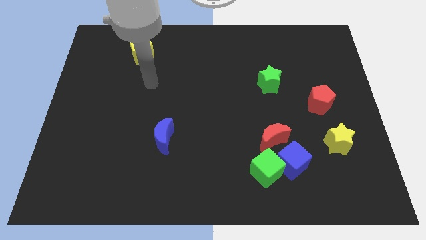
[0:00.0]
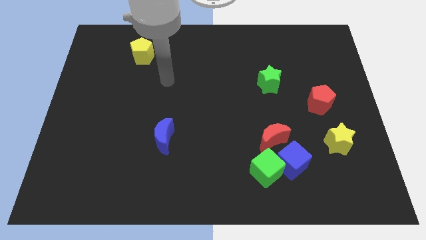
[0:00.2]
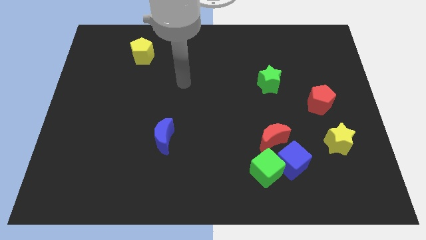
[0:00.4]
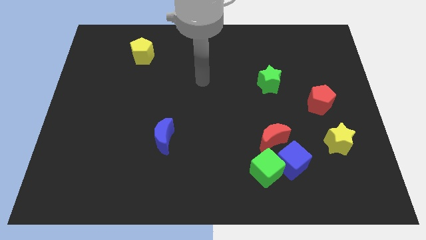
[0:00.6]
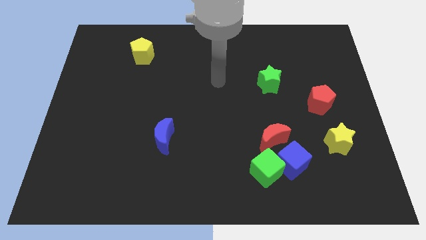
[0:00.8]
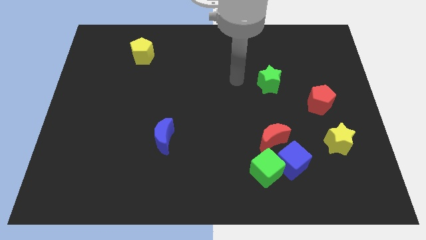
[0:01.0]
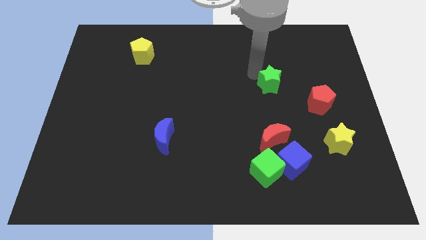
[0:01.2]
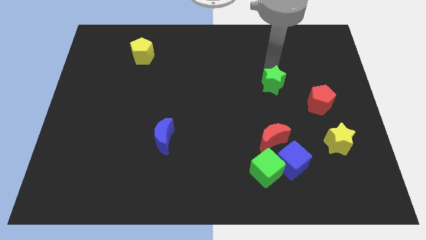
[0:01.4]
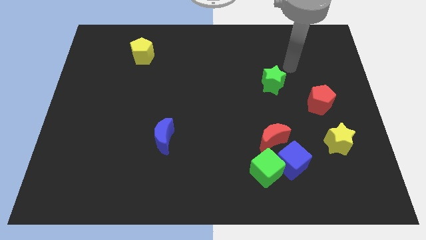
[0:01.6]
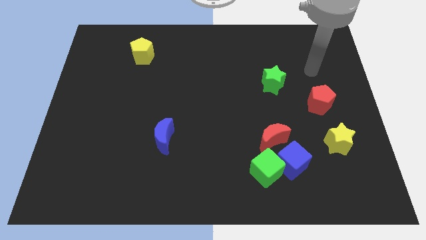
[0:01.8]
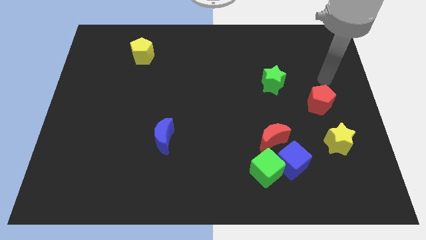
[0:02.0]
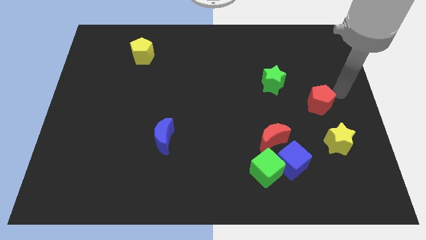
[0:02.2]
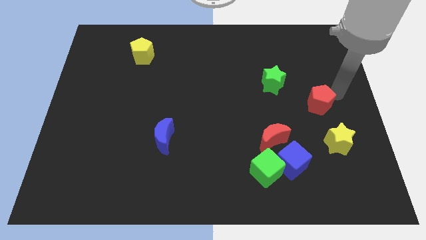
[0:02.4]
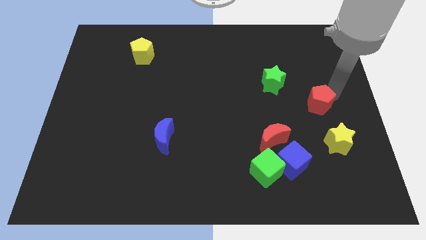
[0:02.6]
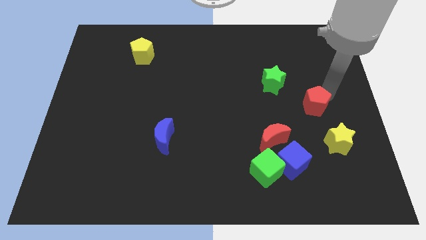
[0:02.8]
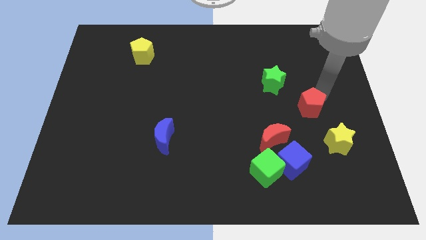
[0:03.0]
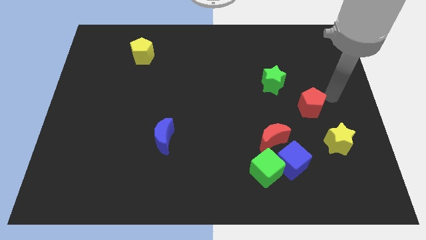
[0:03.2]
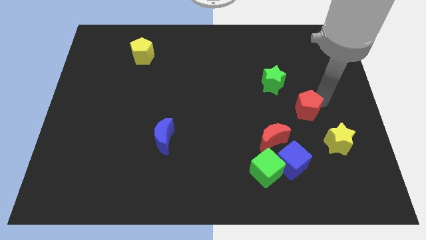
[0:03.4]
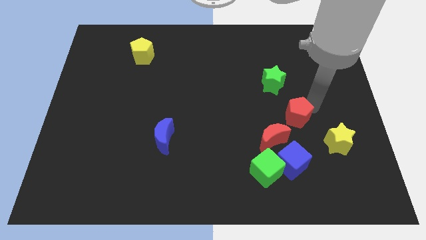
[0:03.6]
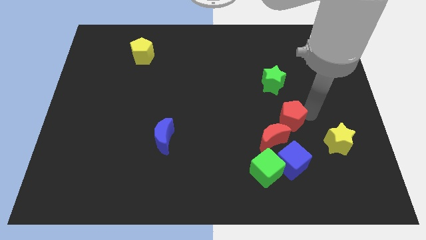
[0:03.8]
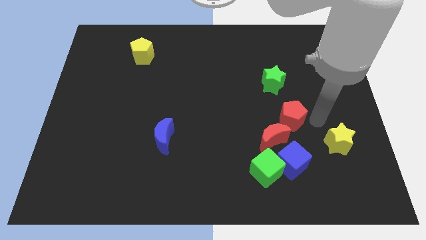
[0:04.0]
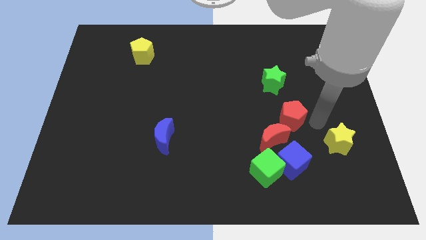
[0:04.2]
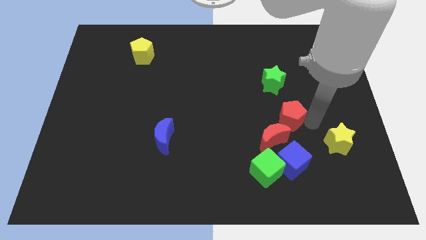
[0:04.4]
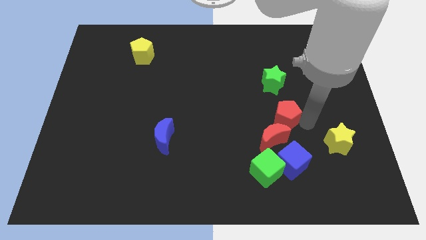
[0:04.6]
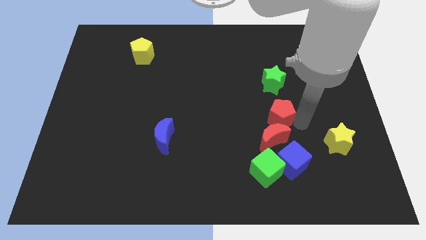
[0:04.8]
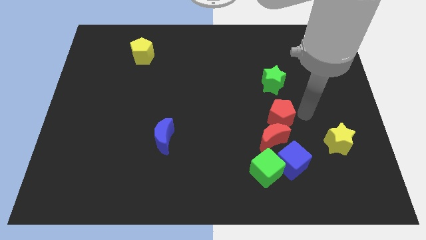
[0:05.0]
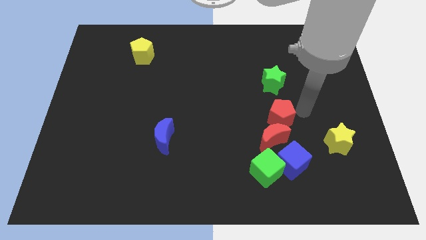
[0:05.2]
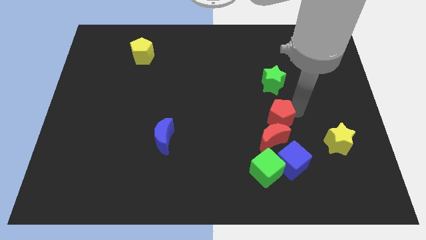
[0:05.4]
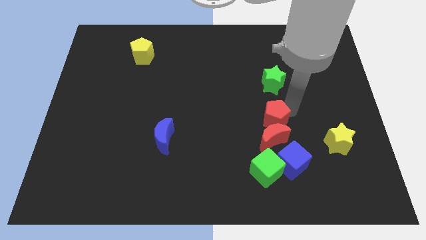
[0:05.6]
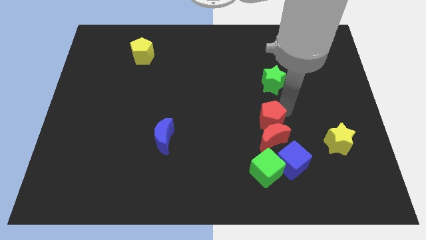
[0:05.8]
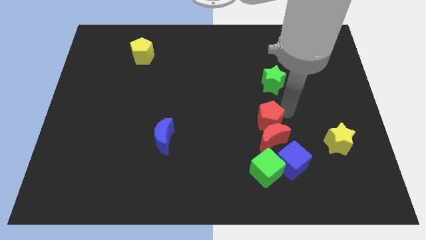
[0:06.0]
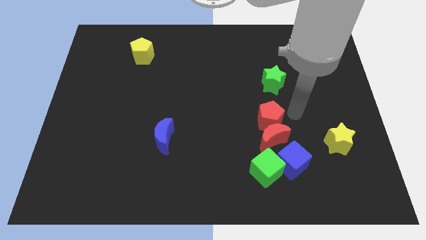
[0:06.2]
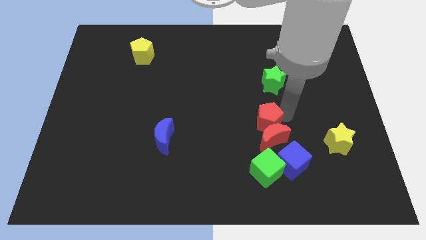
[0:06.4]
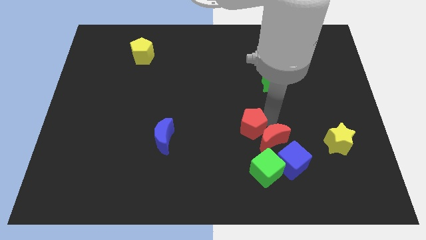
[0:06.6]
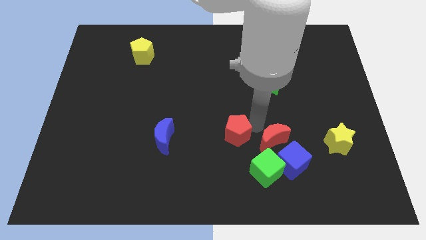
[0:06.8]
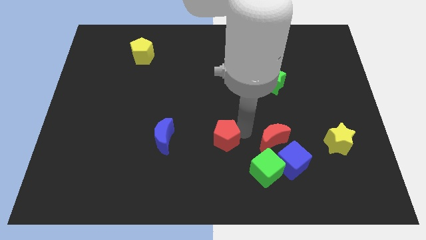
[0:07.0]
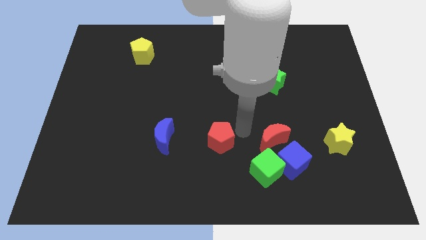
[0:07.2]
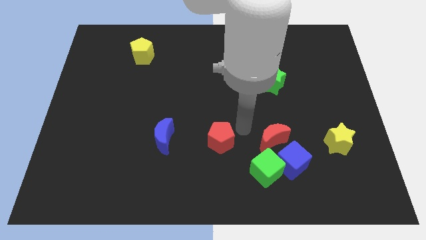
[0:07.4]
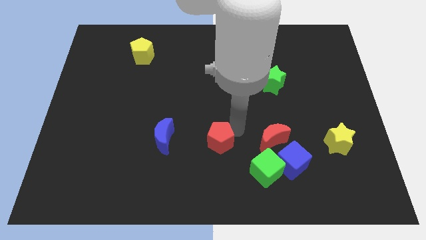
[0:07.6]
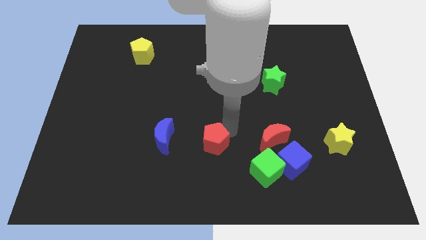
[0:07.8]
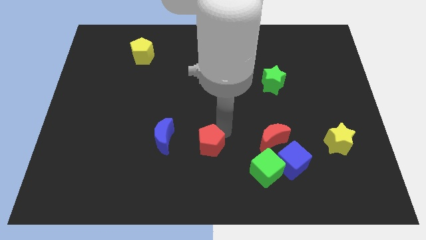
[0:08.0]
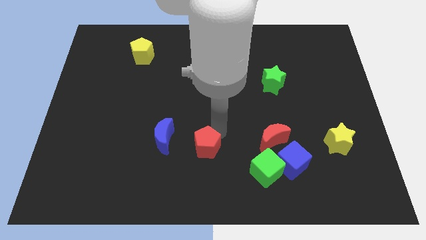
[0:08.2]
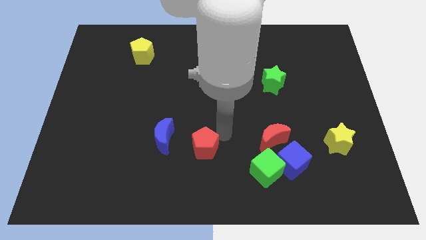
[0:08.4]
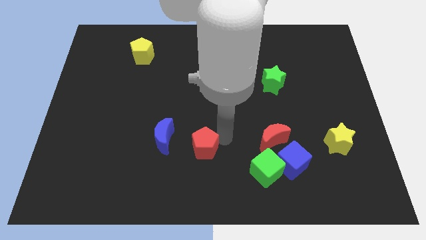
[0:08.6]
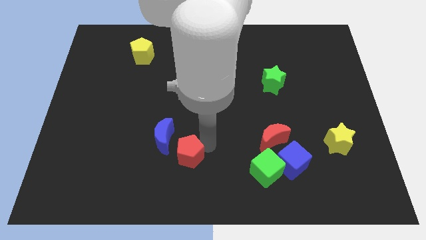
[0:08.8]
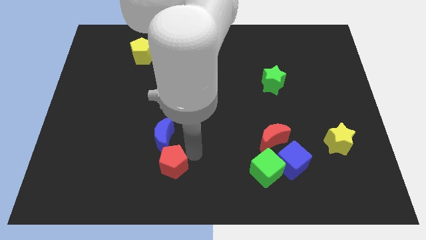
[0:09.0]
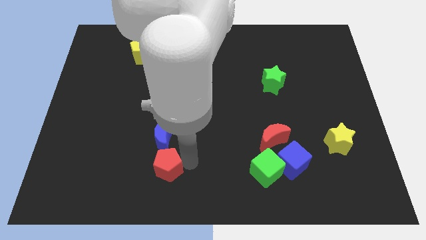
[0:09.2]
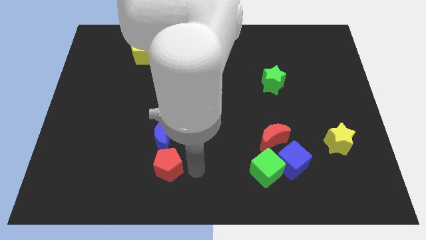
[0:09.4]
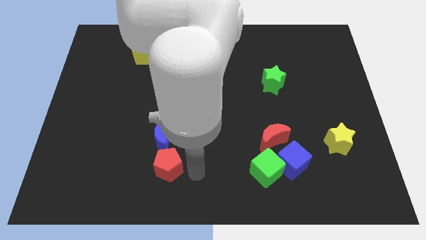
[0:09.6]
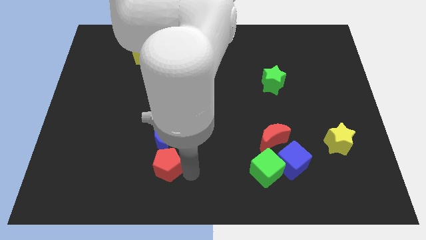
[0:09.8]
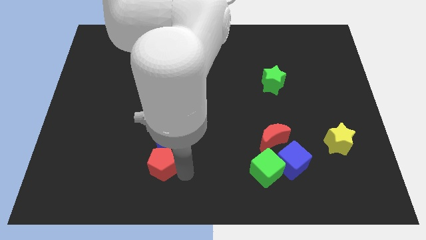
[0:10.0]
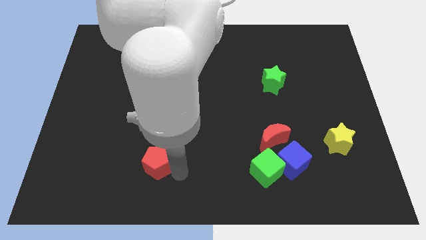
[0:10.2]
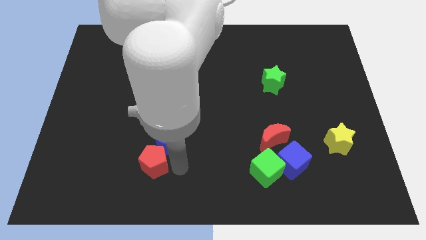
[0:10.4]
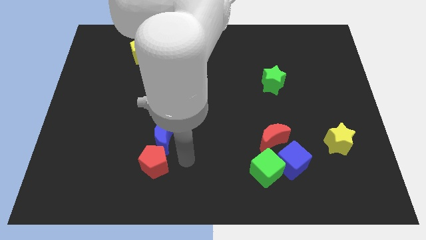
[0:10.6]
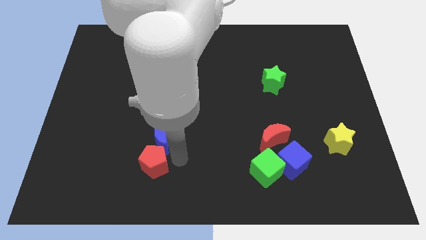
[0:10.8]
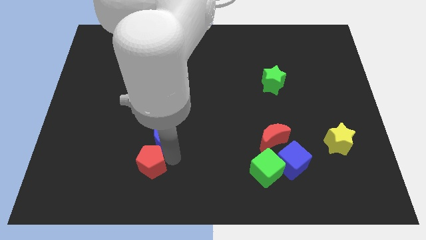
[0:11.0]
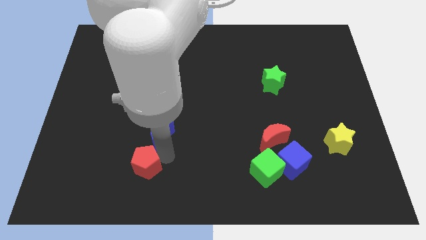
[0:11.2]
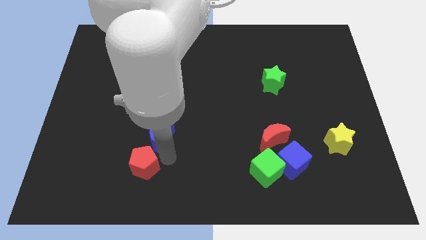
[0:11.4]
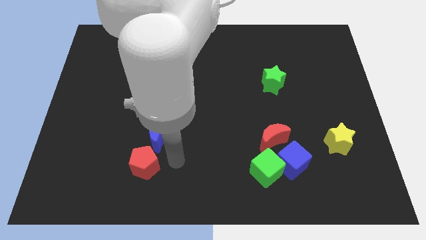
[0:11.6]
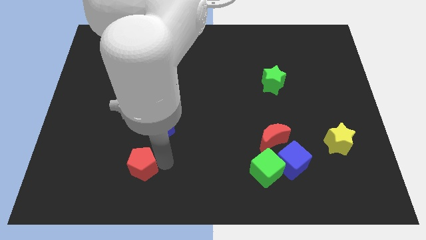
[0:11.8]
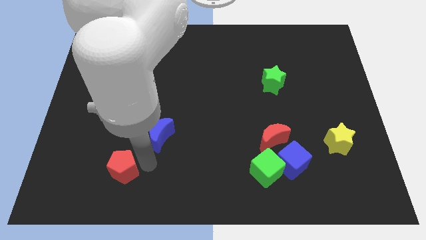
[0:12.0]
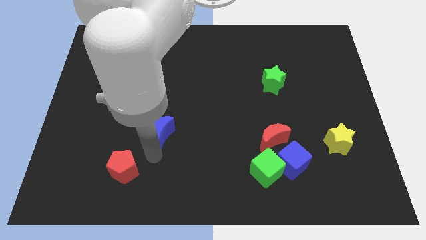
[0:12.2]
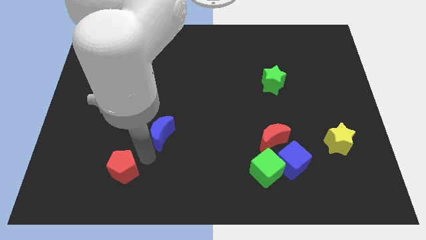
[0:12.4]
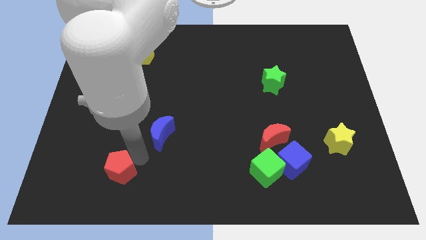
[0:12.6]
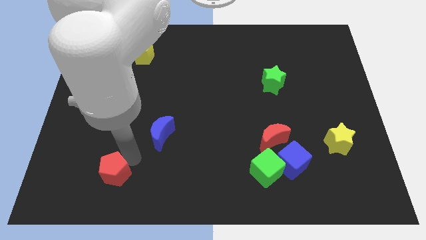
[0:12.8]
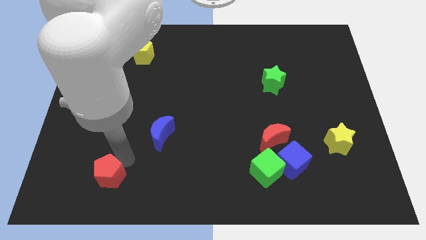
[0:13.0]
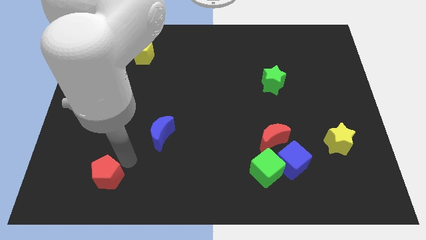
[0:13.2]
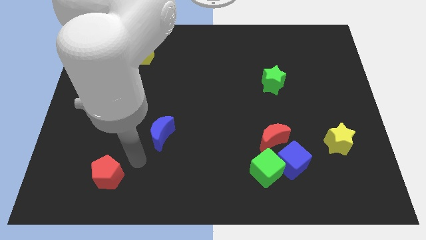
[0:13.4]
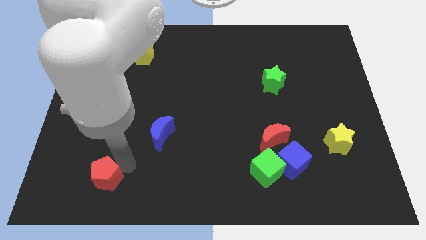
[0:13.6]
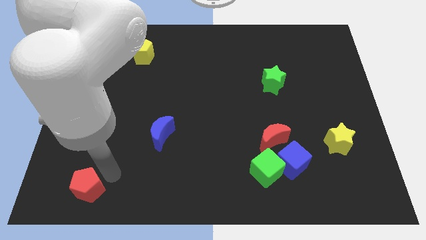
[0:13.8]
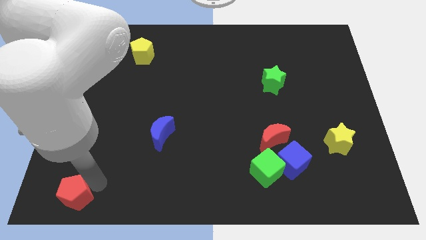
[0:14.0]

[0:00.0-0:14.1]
slide the red pentagon to the lower left corner
